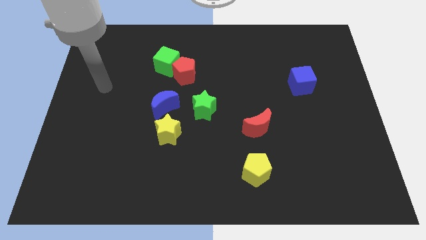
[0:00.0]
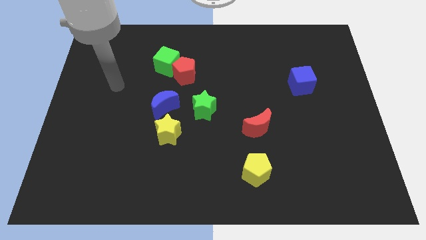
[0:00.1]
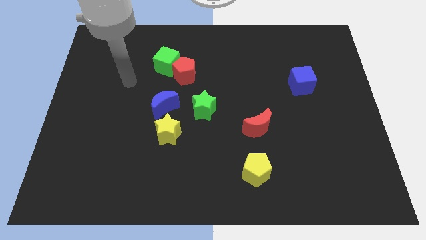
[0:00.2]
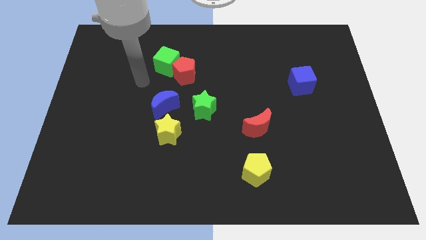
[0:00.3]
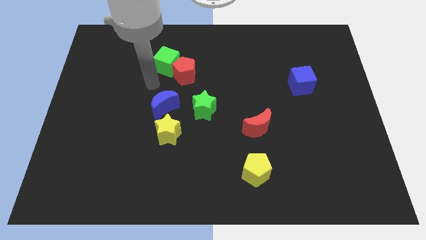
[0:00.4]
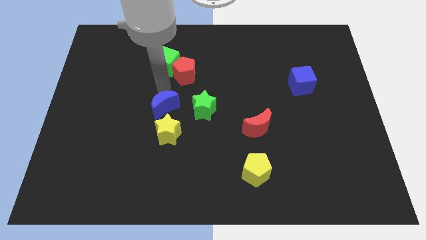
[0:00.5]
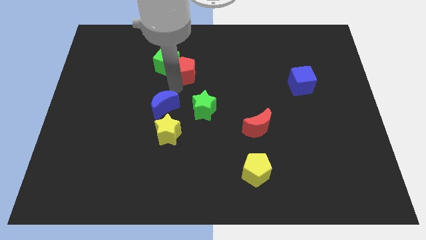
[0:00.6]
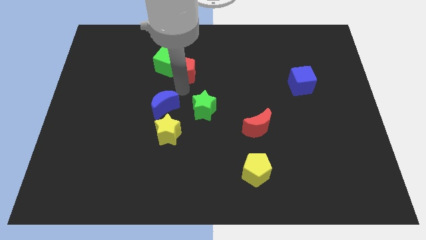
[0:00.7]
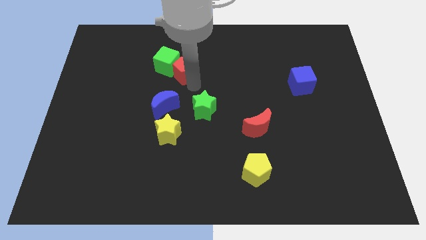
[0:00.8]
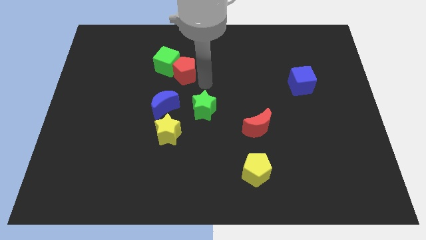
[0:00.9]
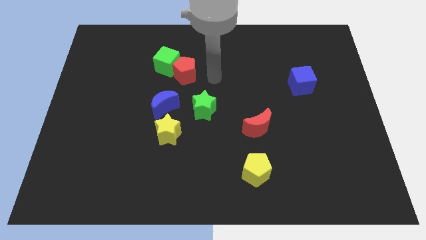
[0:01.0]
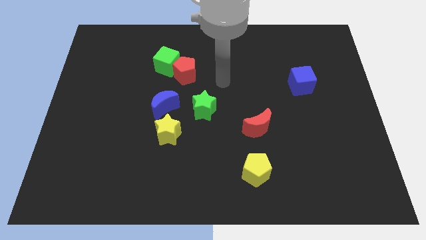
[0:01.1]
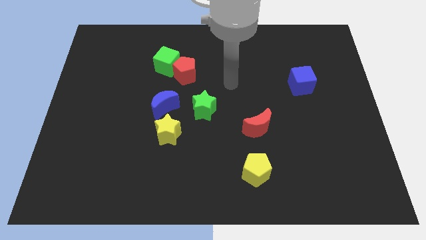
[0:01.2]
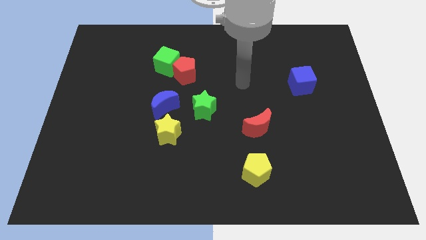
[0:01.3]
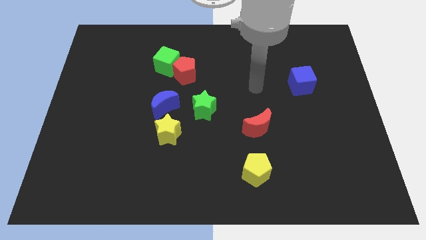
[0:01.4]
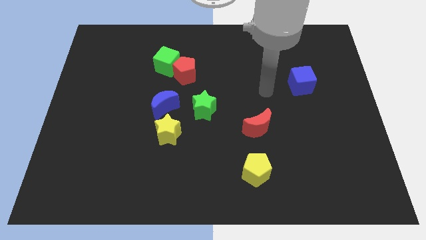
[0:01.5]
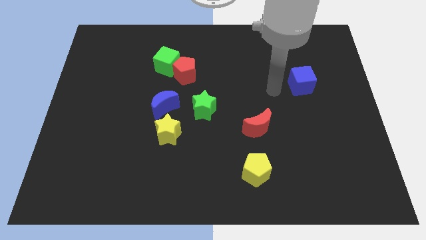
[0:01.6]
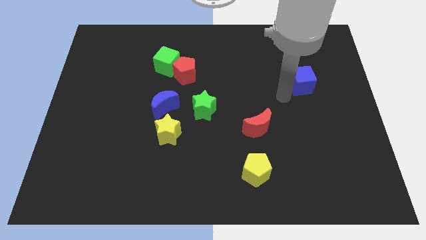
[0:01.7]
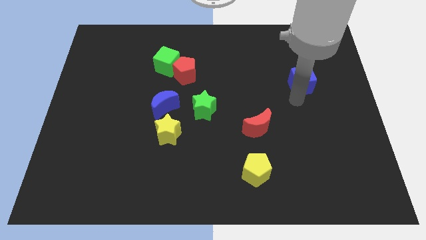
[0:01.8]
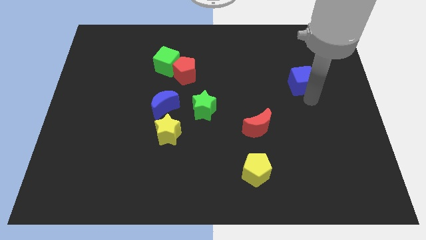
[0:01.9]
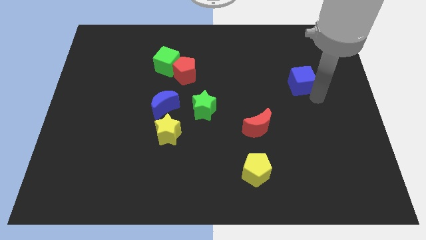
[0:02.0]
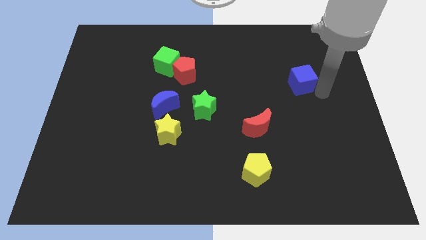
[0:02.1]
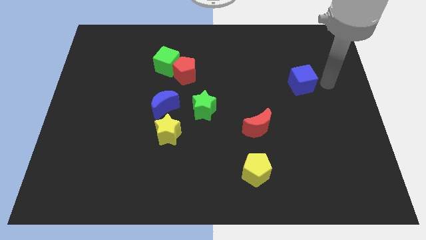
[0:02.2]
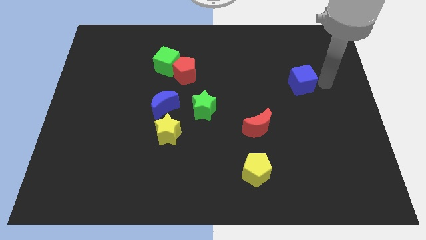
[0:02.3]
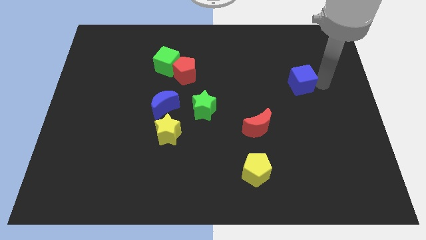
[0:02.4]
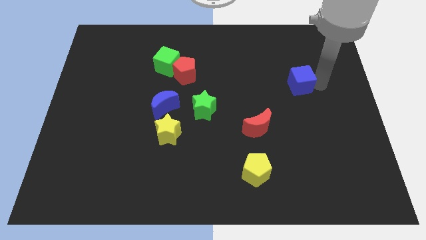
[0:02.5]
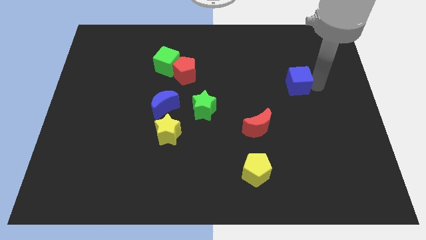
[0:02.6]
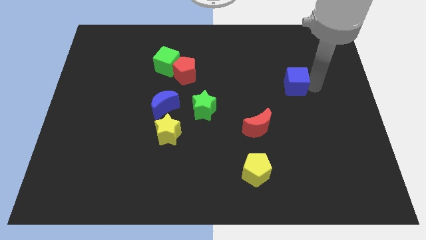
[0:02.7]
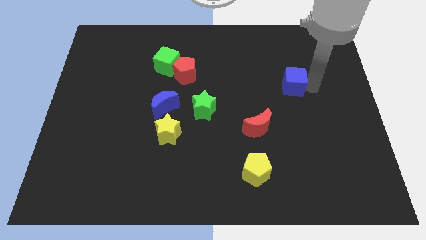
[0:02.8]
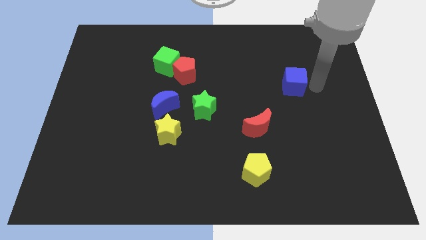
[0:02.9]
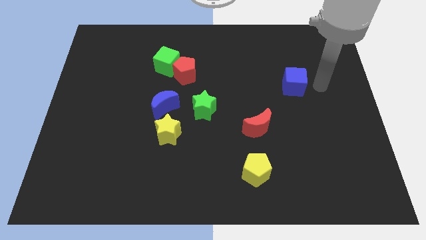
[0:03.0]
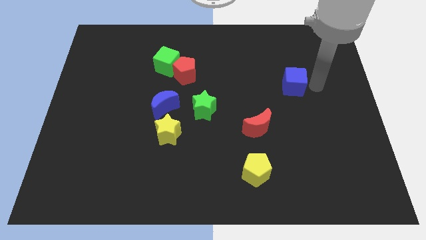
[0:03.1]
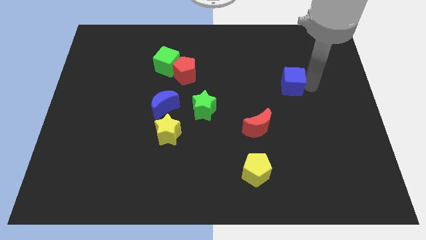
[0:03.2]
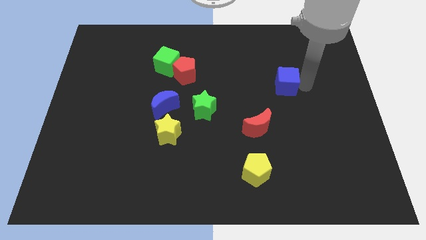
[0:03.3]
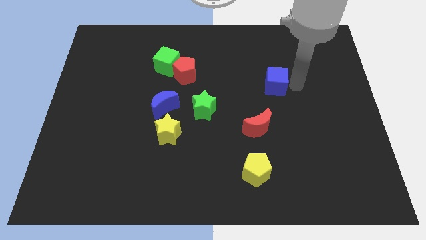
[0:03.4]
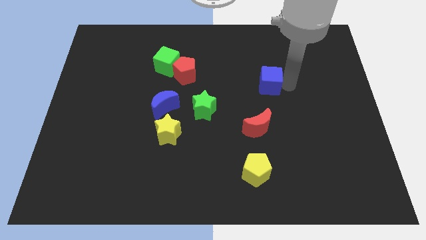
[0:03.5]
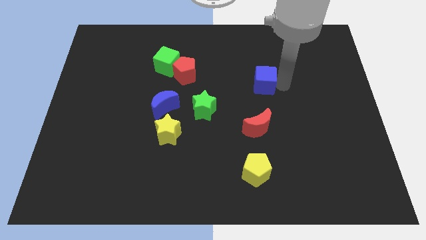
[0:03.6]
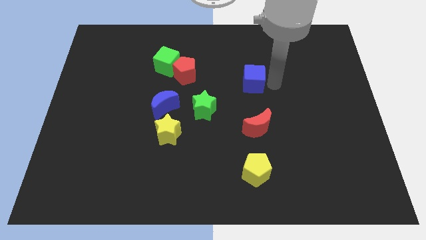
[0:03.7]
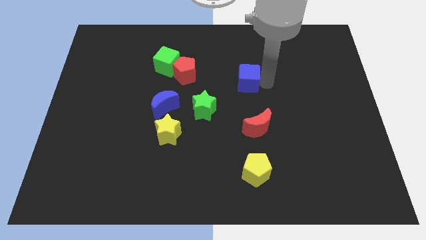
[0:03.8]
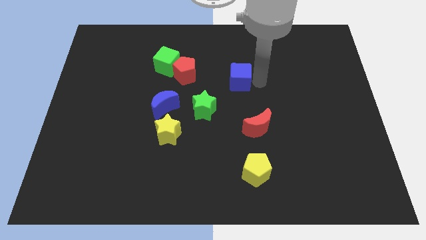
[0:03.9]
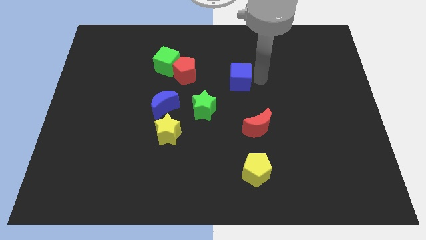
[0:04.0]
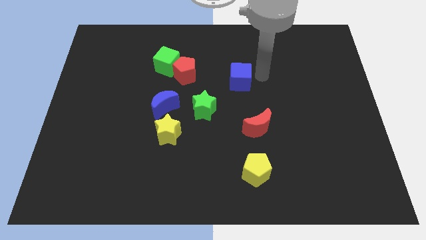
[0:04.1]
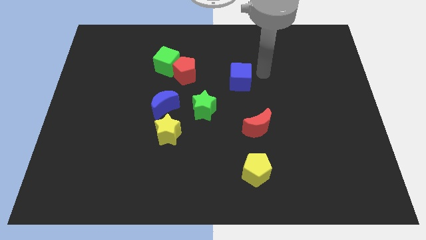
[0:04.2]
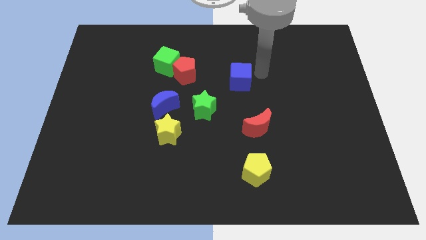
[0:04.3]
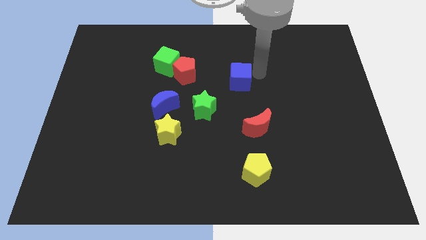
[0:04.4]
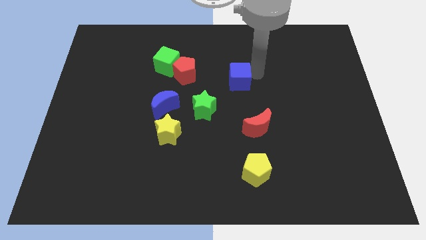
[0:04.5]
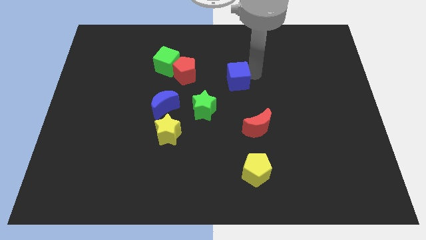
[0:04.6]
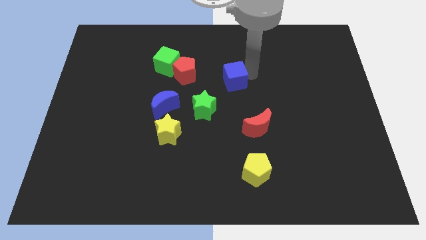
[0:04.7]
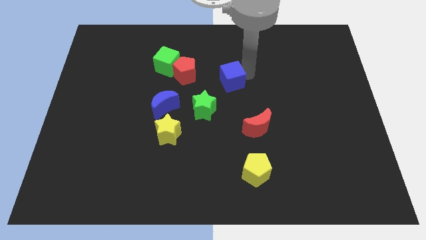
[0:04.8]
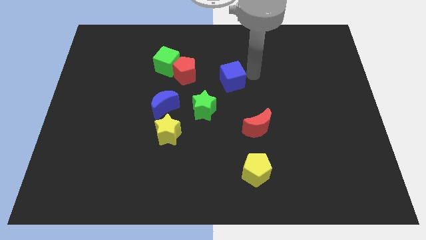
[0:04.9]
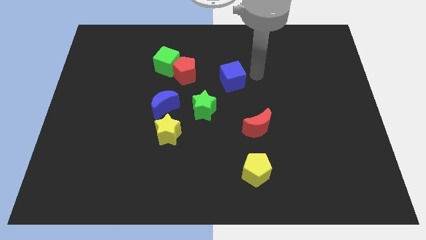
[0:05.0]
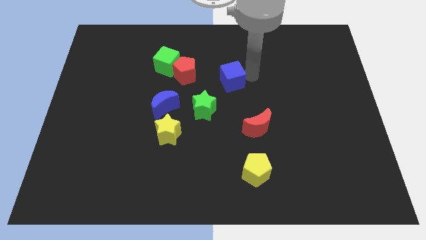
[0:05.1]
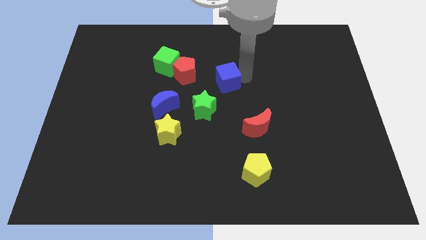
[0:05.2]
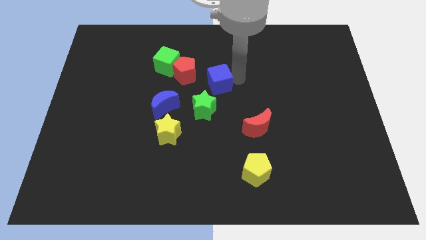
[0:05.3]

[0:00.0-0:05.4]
slide the blue cube left

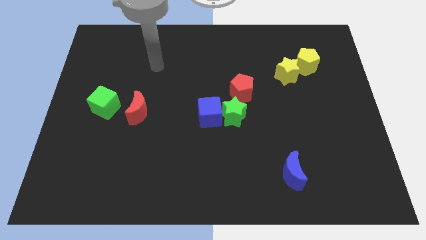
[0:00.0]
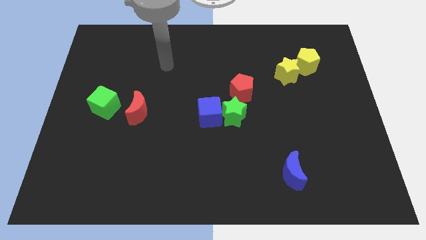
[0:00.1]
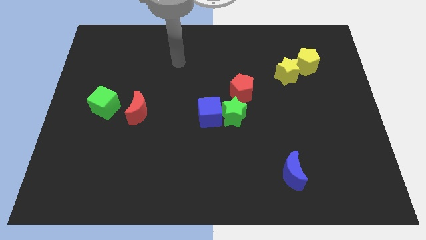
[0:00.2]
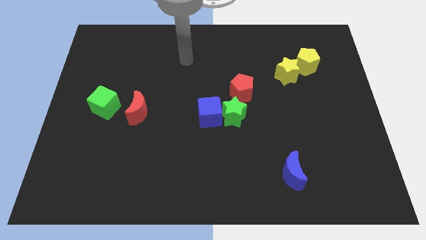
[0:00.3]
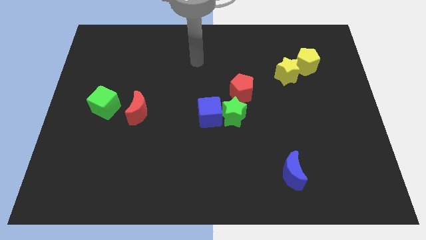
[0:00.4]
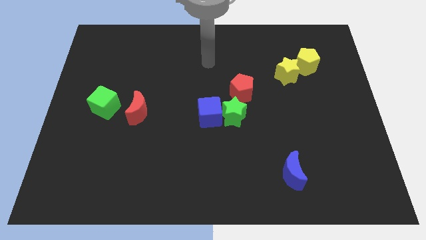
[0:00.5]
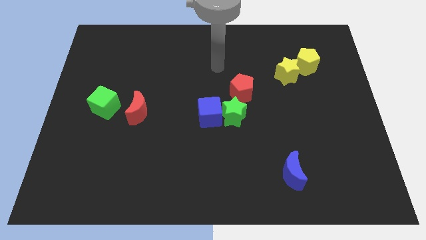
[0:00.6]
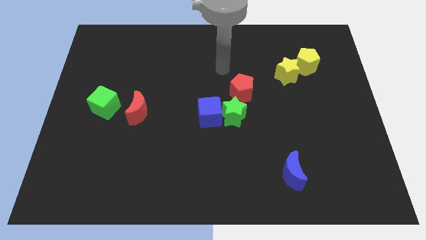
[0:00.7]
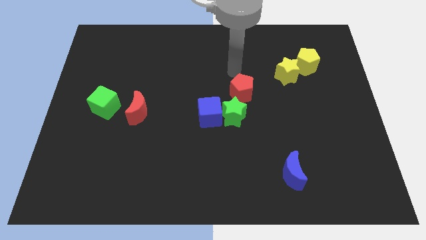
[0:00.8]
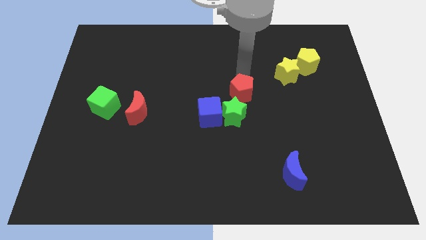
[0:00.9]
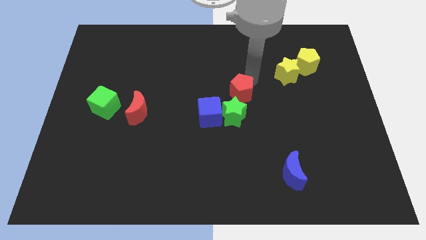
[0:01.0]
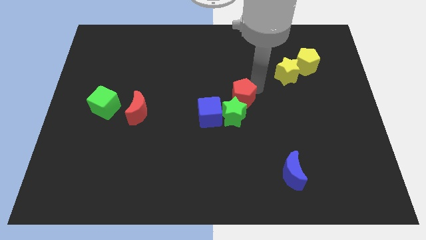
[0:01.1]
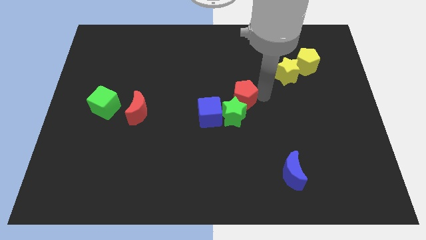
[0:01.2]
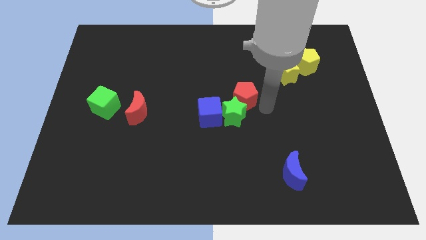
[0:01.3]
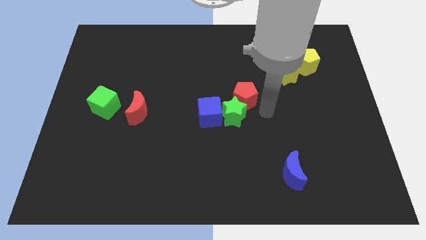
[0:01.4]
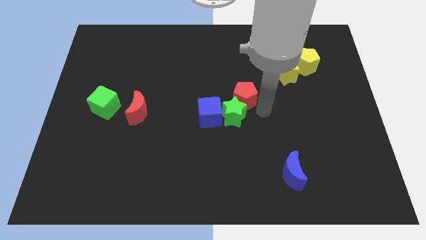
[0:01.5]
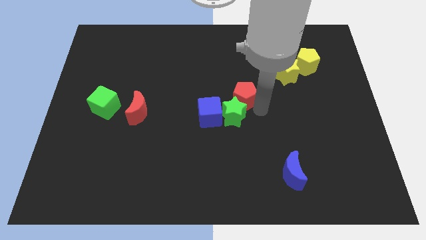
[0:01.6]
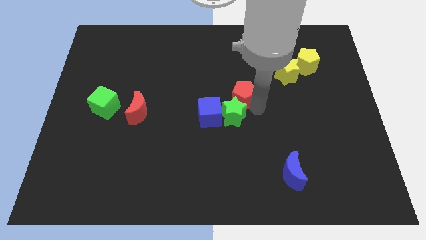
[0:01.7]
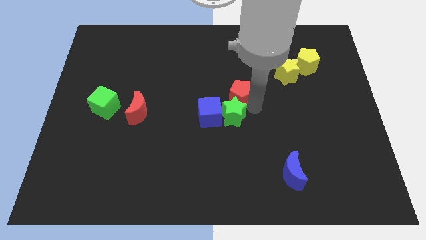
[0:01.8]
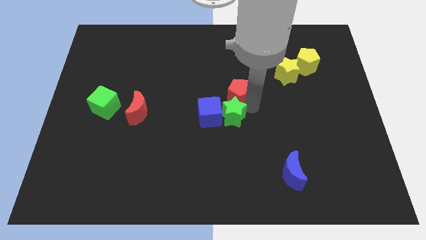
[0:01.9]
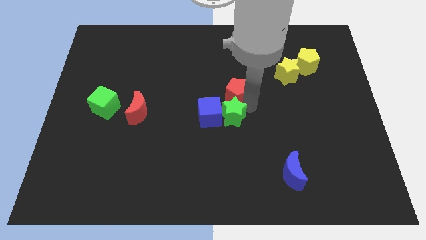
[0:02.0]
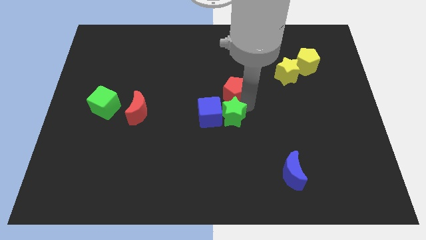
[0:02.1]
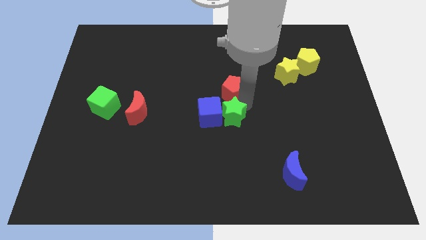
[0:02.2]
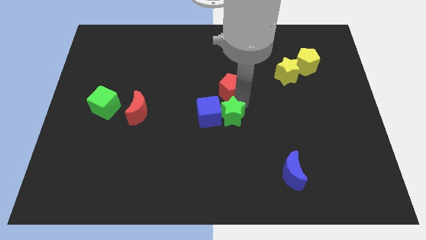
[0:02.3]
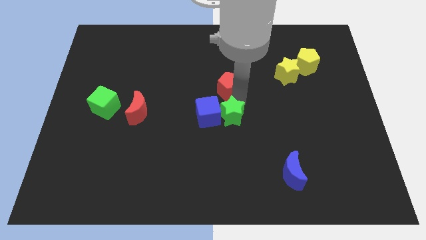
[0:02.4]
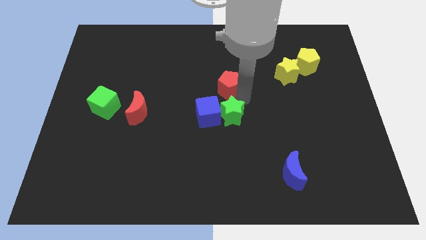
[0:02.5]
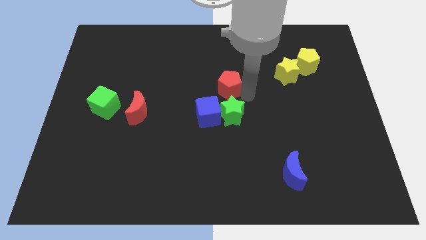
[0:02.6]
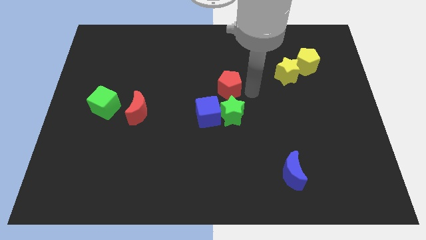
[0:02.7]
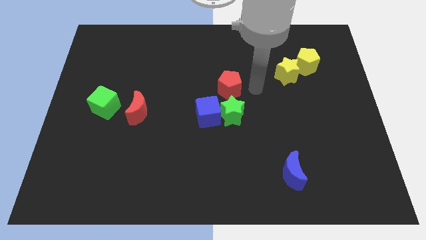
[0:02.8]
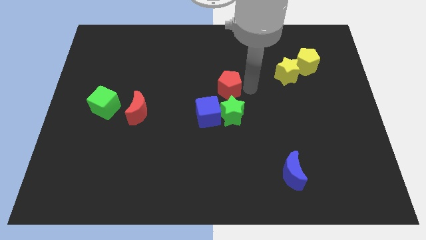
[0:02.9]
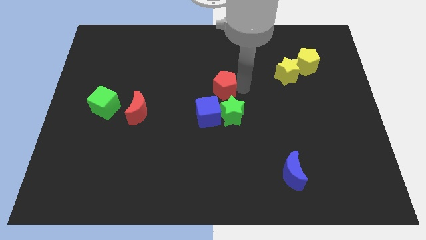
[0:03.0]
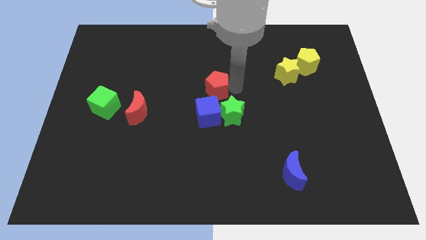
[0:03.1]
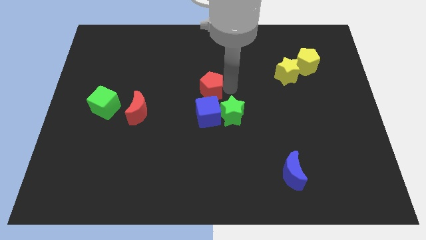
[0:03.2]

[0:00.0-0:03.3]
push the red pentagon left somewhat
